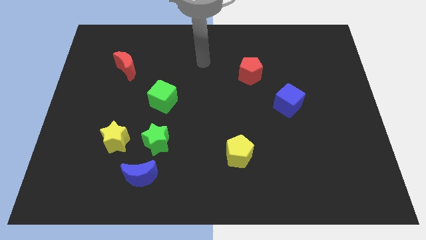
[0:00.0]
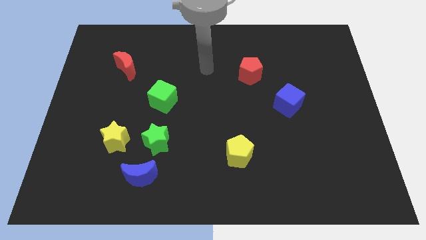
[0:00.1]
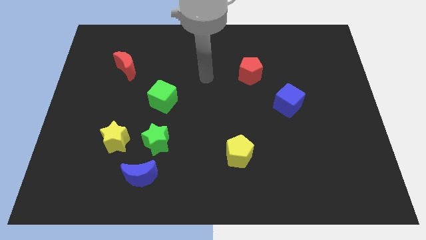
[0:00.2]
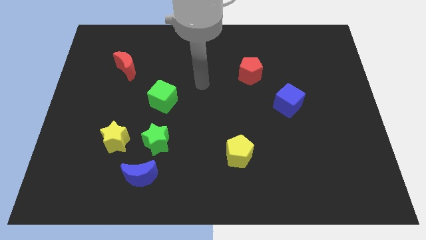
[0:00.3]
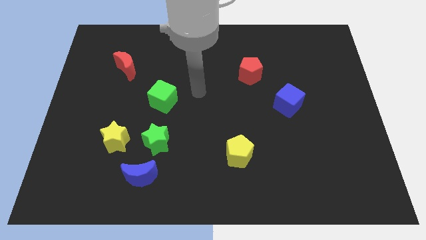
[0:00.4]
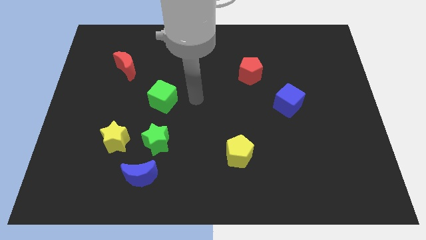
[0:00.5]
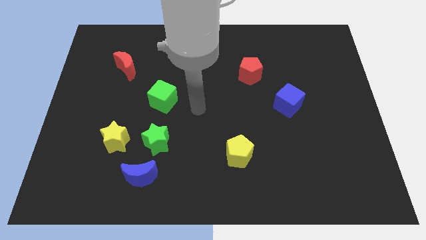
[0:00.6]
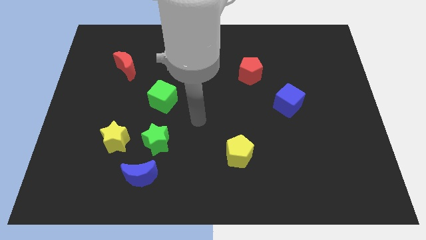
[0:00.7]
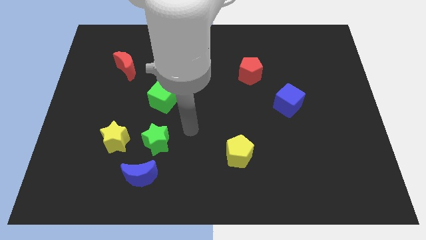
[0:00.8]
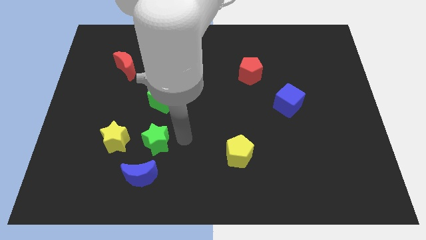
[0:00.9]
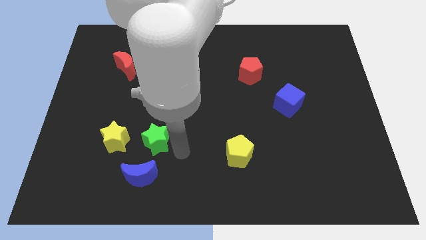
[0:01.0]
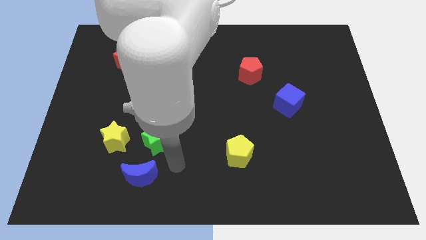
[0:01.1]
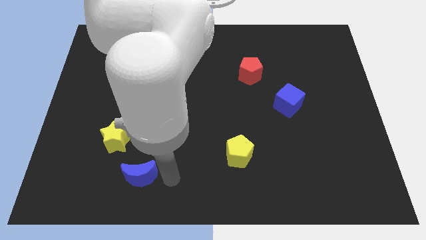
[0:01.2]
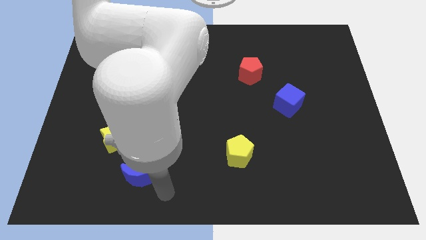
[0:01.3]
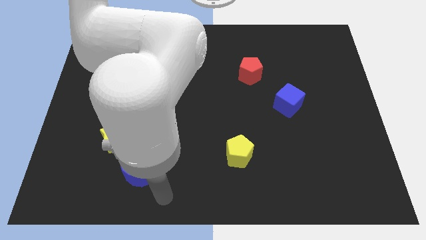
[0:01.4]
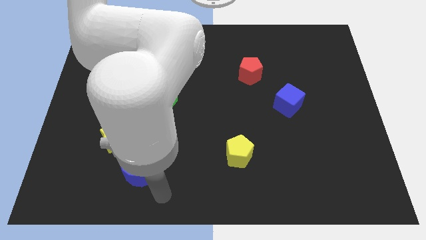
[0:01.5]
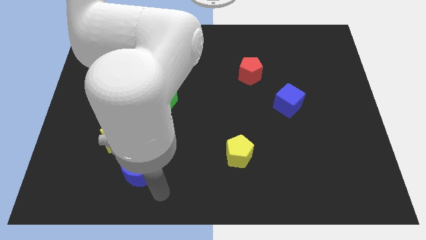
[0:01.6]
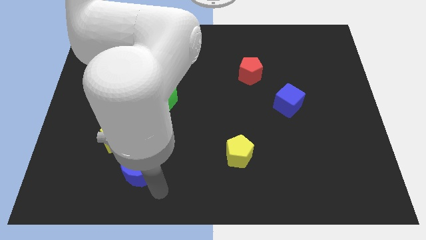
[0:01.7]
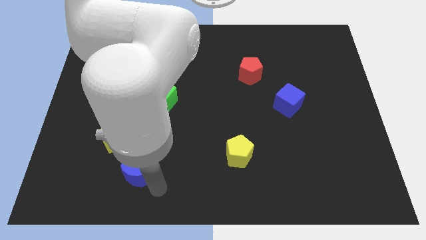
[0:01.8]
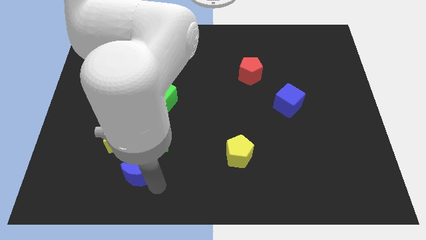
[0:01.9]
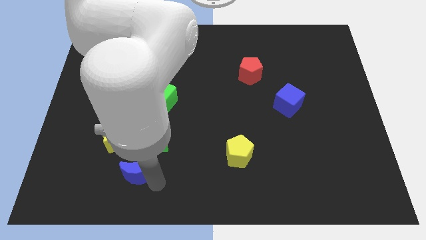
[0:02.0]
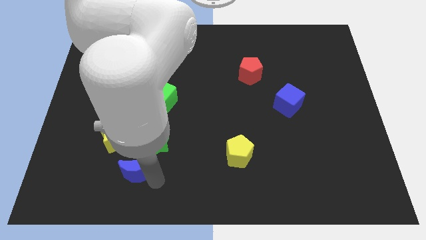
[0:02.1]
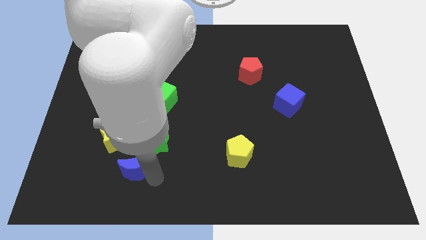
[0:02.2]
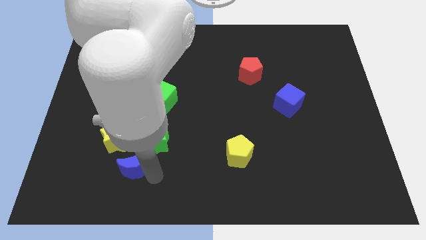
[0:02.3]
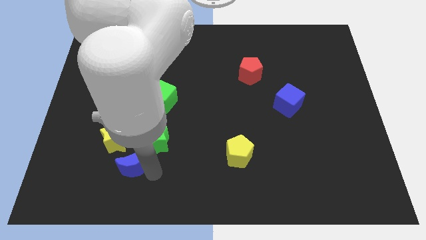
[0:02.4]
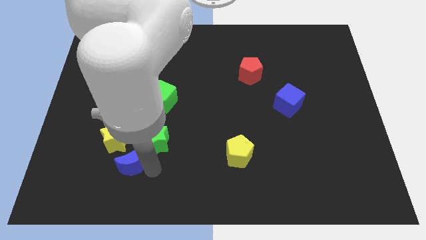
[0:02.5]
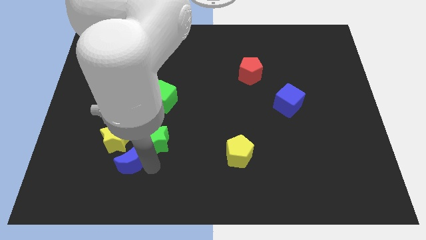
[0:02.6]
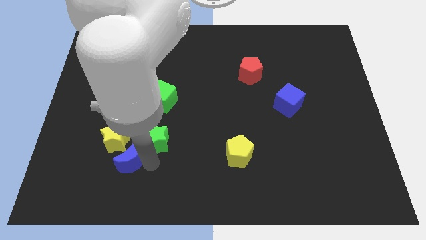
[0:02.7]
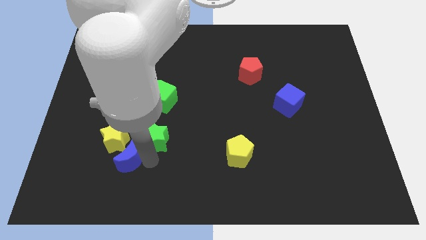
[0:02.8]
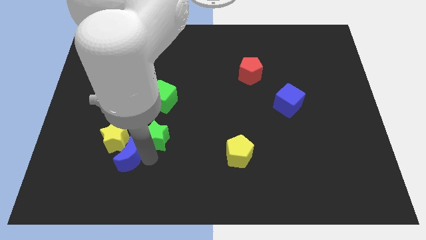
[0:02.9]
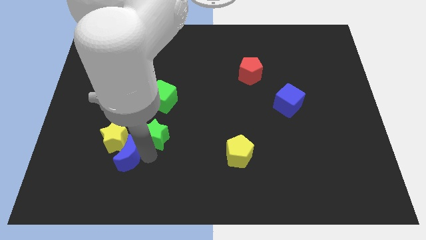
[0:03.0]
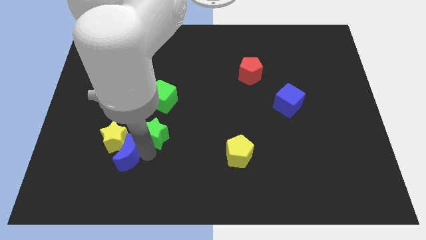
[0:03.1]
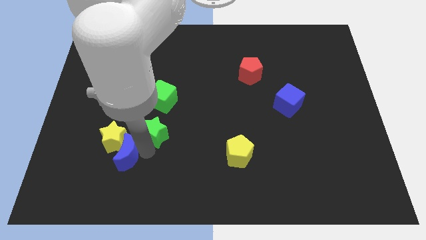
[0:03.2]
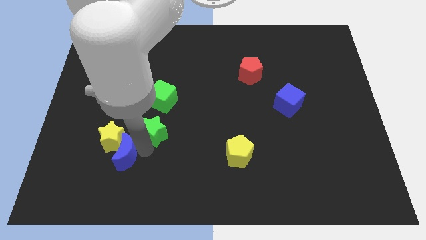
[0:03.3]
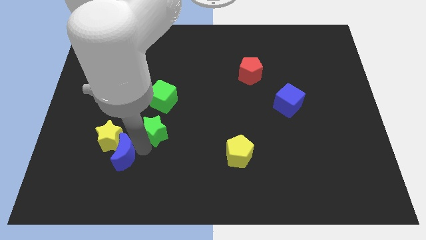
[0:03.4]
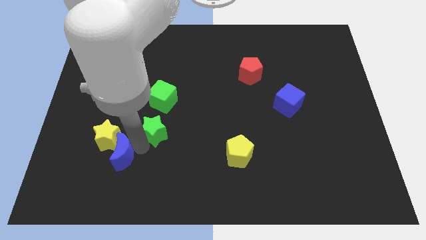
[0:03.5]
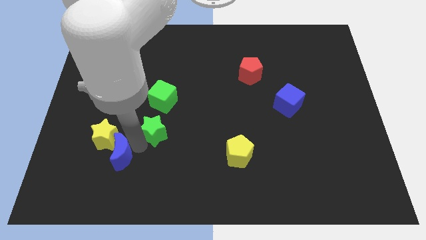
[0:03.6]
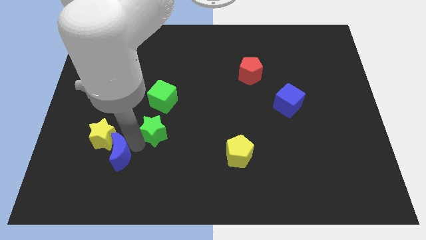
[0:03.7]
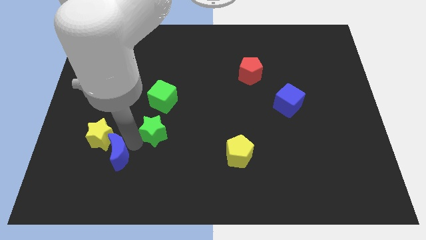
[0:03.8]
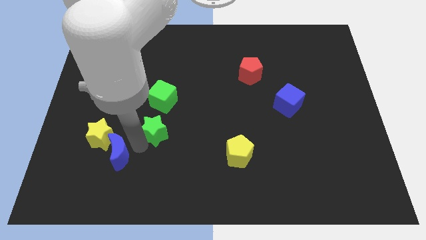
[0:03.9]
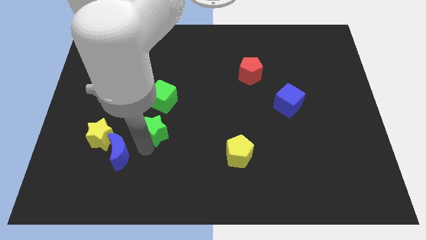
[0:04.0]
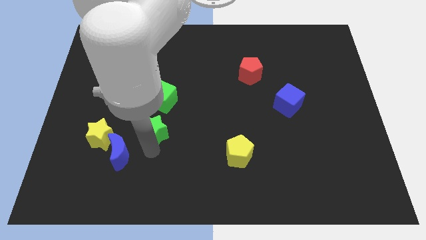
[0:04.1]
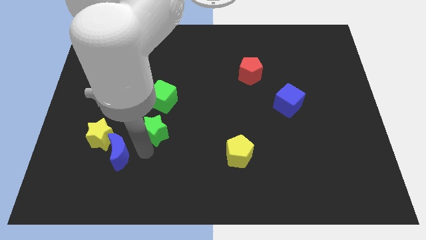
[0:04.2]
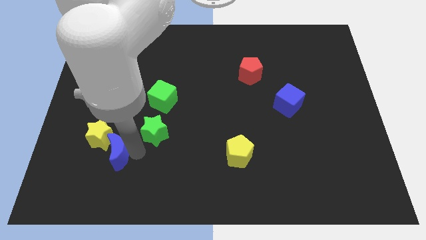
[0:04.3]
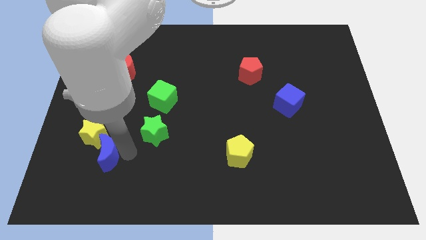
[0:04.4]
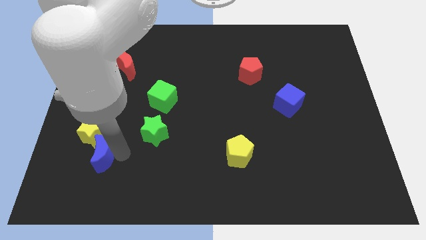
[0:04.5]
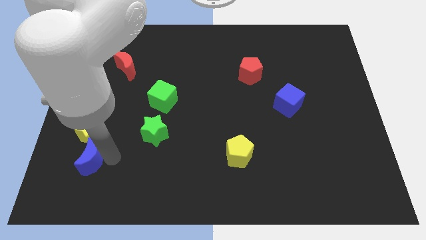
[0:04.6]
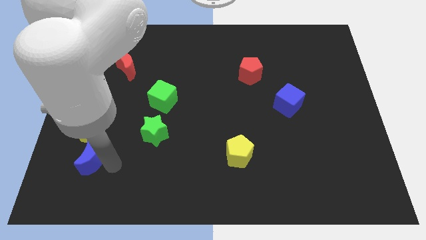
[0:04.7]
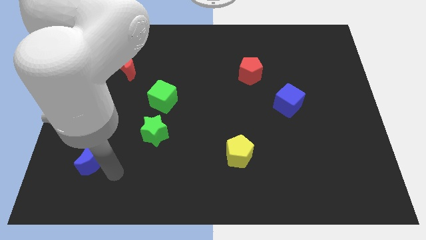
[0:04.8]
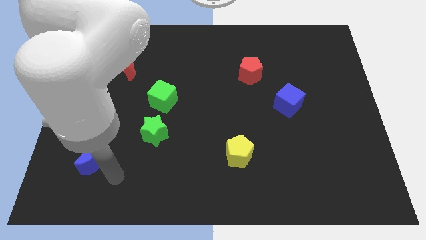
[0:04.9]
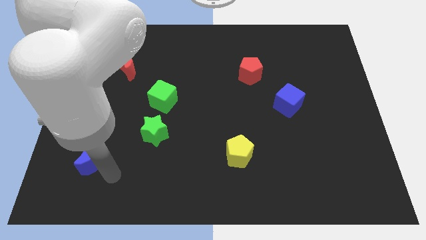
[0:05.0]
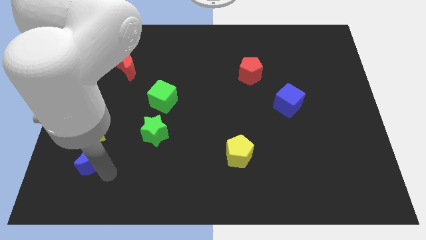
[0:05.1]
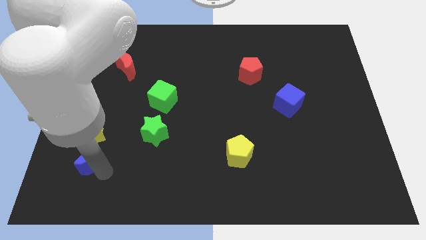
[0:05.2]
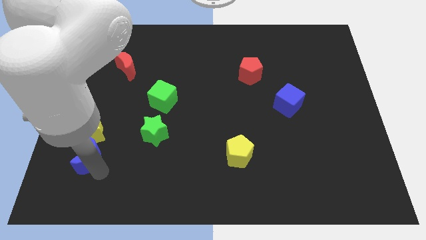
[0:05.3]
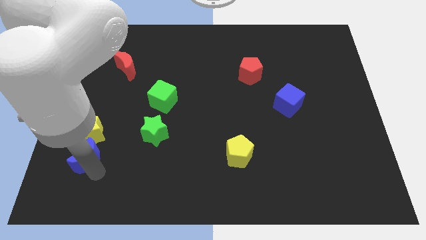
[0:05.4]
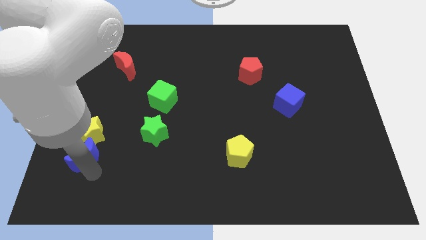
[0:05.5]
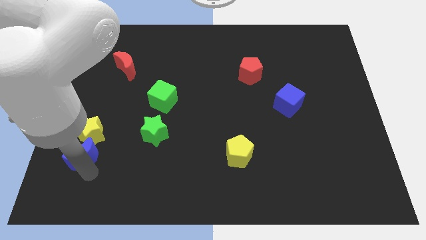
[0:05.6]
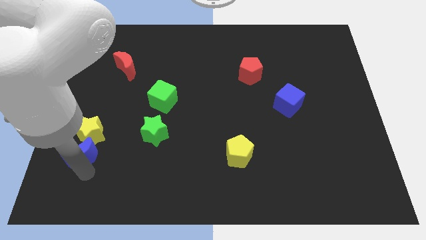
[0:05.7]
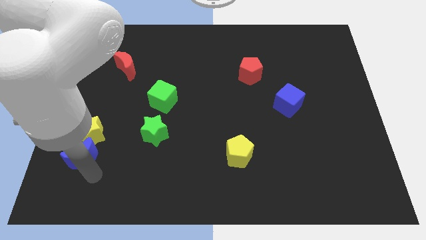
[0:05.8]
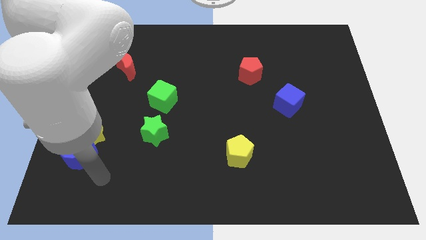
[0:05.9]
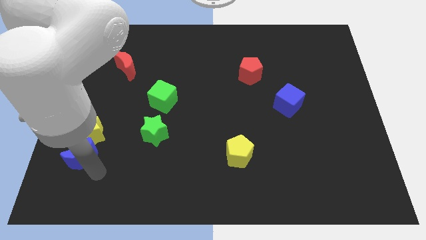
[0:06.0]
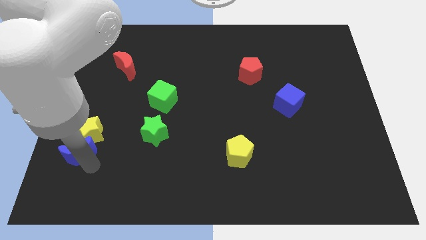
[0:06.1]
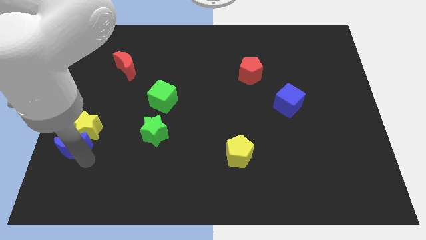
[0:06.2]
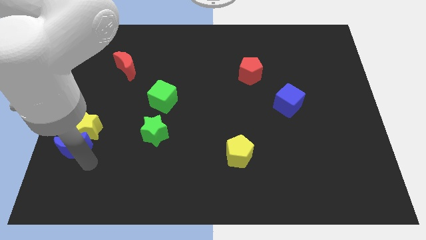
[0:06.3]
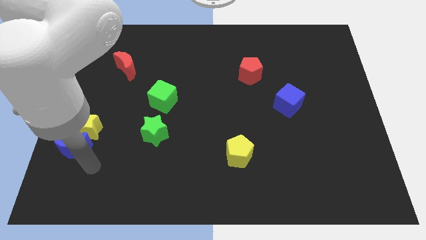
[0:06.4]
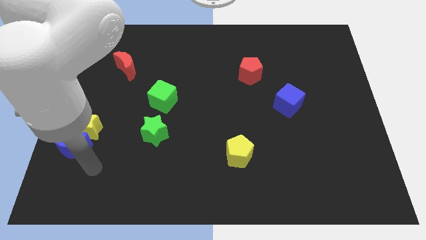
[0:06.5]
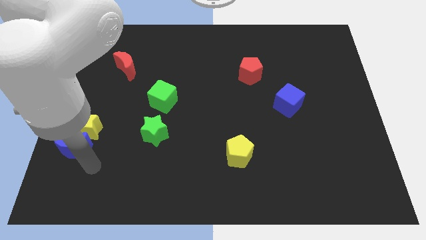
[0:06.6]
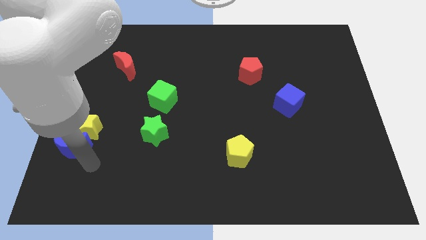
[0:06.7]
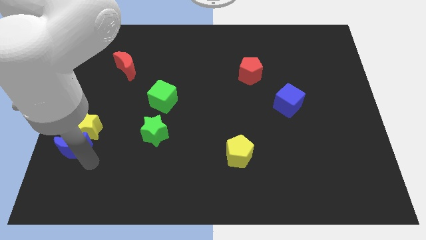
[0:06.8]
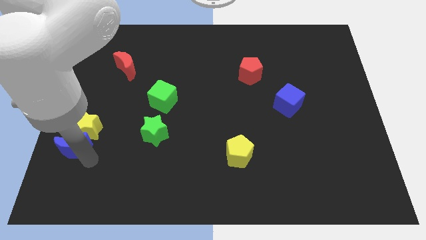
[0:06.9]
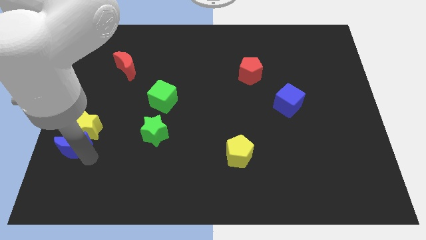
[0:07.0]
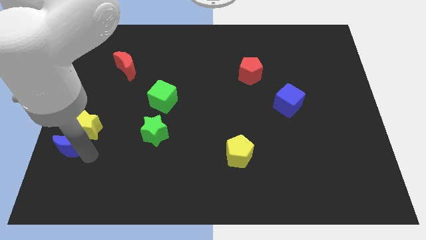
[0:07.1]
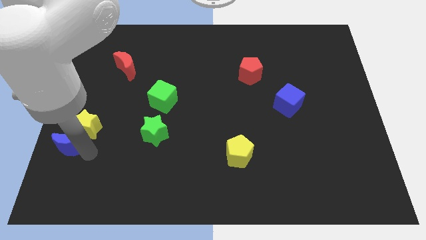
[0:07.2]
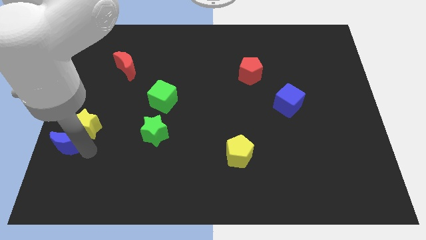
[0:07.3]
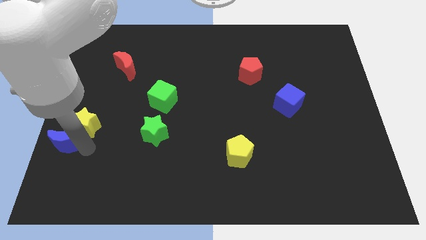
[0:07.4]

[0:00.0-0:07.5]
push the blue moon to the center left
